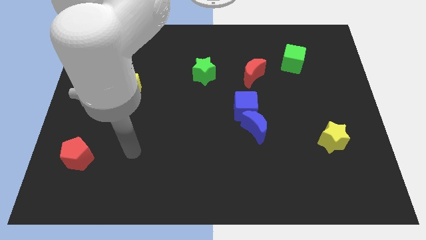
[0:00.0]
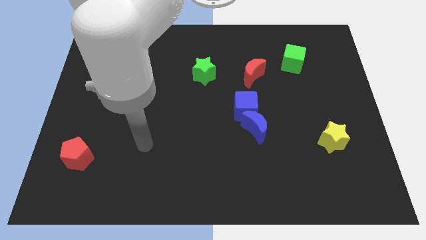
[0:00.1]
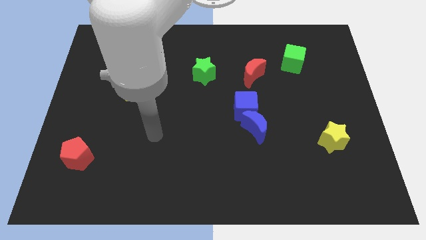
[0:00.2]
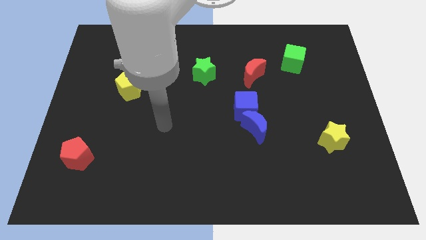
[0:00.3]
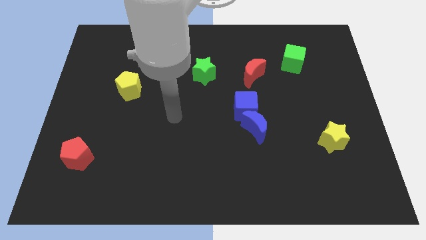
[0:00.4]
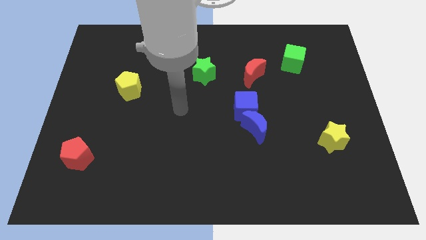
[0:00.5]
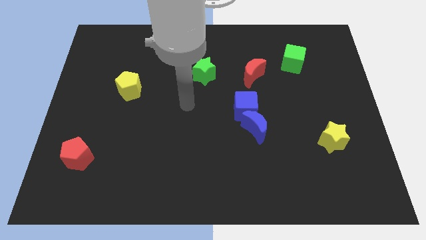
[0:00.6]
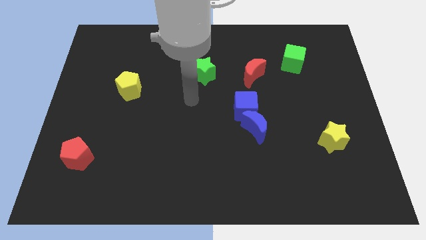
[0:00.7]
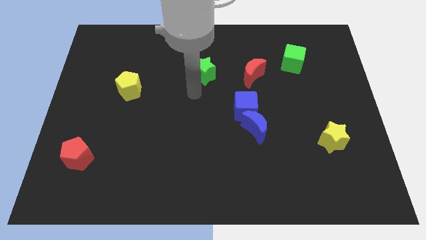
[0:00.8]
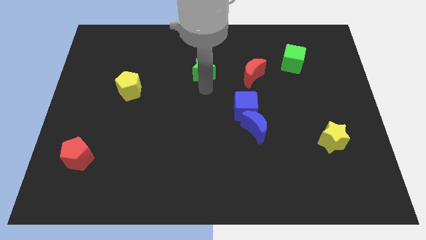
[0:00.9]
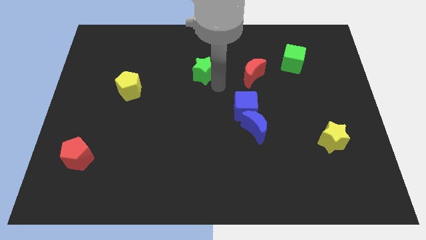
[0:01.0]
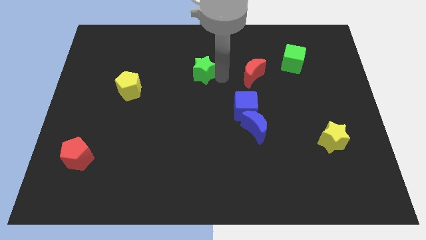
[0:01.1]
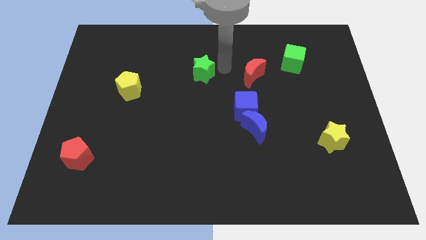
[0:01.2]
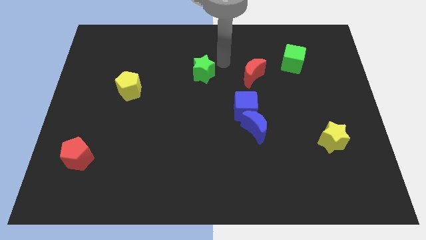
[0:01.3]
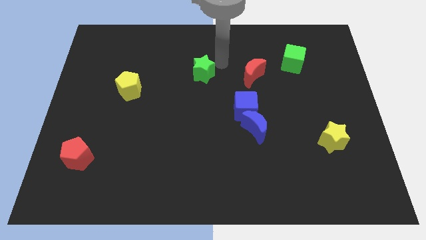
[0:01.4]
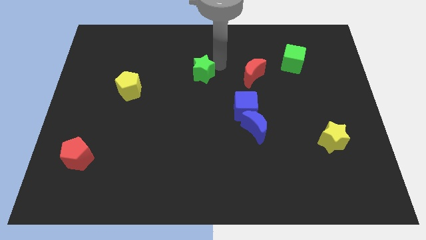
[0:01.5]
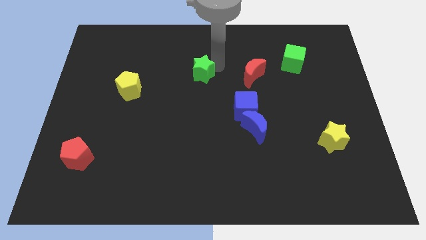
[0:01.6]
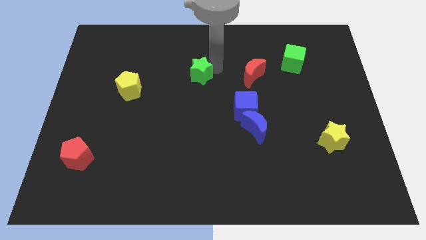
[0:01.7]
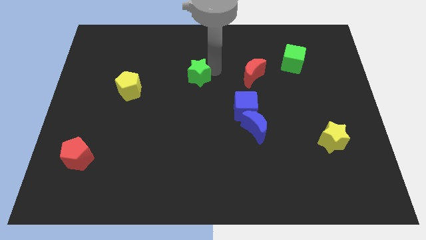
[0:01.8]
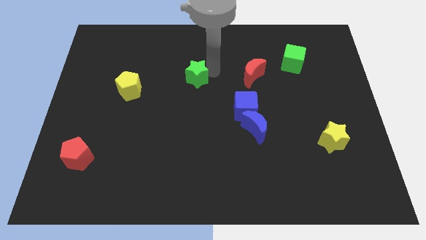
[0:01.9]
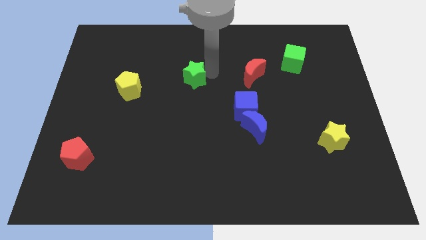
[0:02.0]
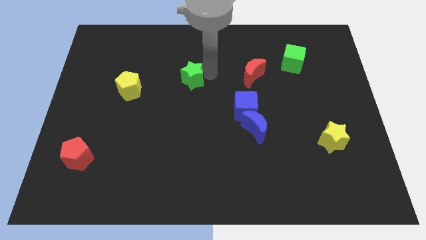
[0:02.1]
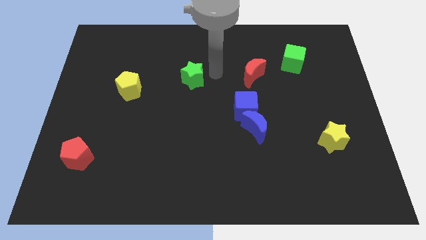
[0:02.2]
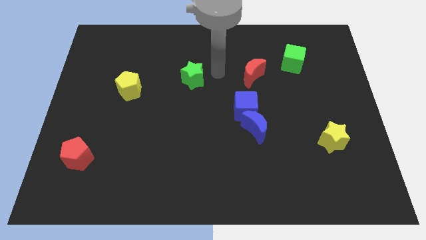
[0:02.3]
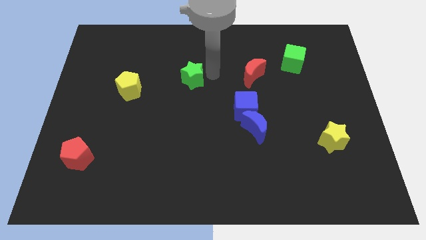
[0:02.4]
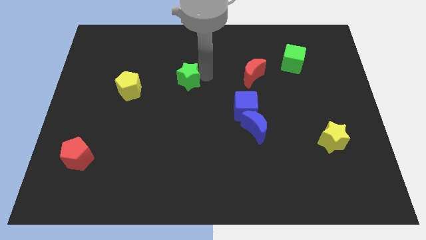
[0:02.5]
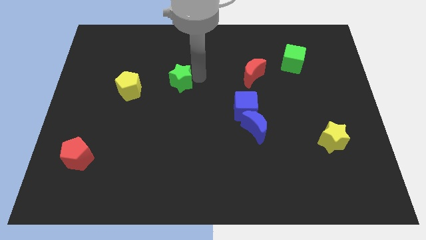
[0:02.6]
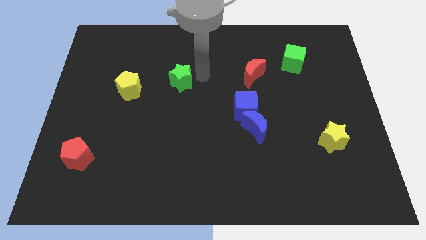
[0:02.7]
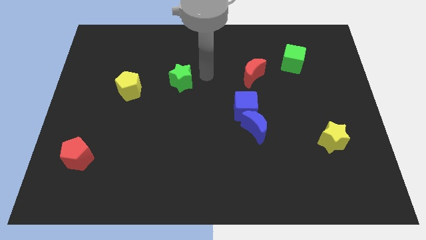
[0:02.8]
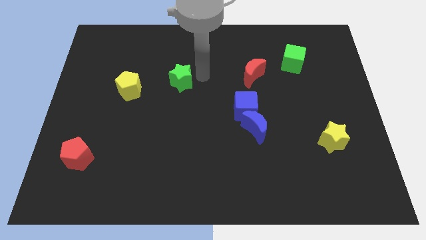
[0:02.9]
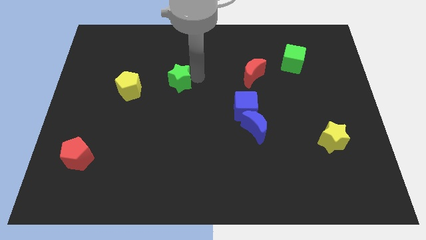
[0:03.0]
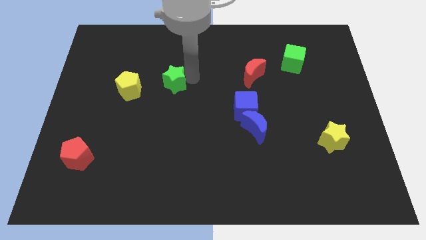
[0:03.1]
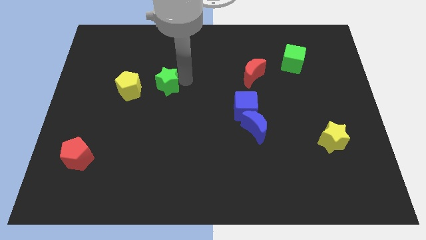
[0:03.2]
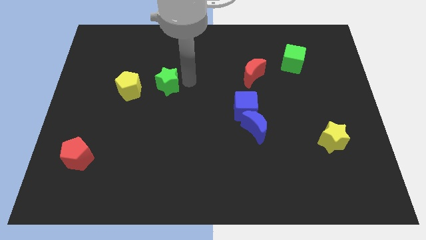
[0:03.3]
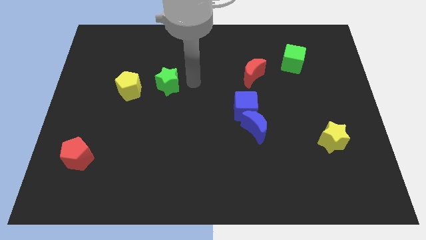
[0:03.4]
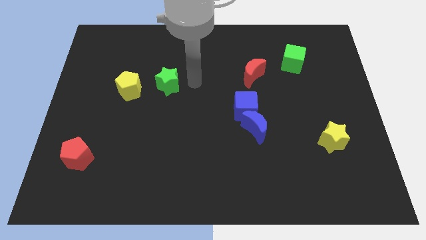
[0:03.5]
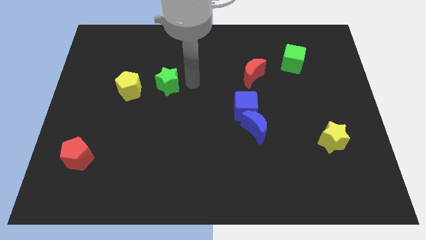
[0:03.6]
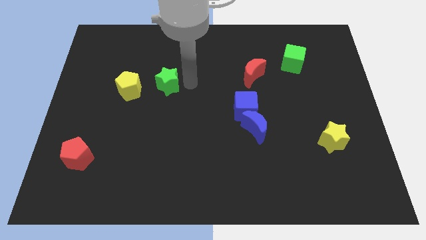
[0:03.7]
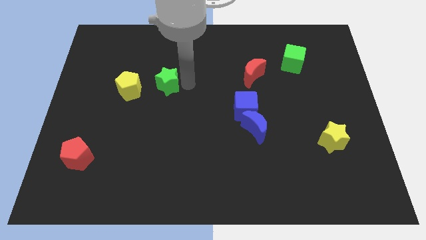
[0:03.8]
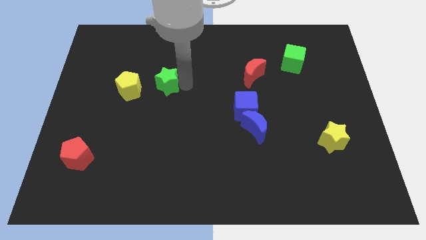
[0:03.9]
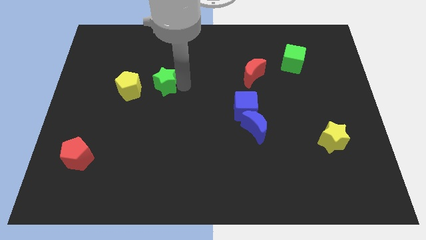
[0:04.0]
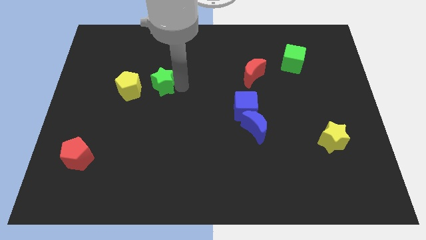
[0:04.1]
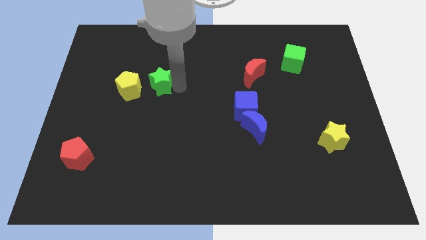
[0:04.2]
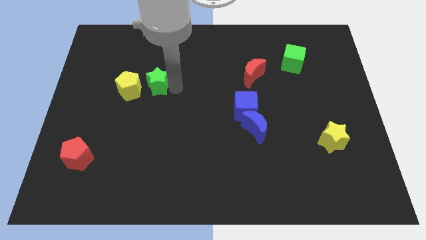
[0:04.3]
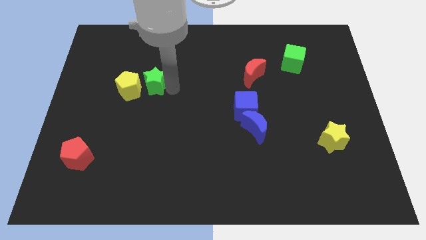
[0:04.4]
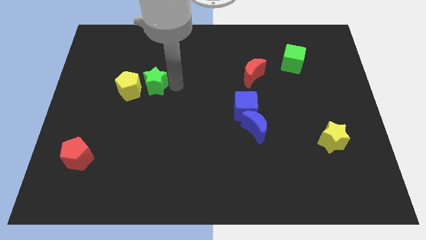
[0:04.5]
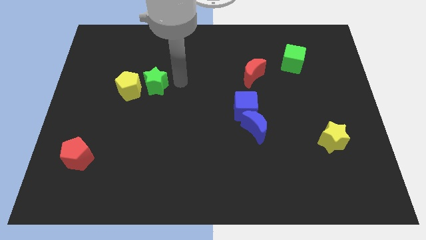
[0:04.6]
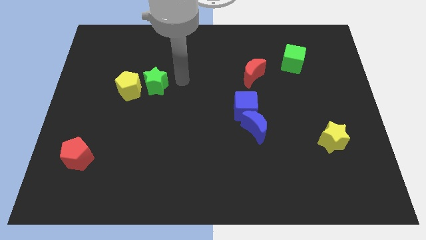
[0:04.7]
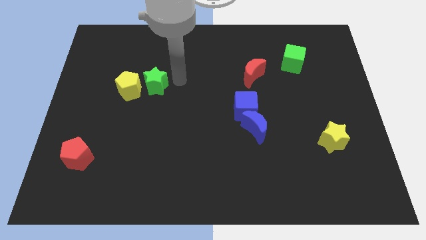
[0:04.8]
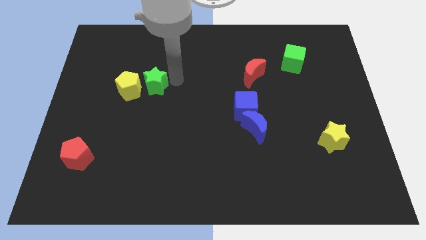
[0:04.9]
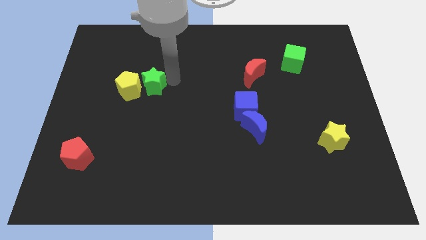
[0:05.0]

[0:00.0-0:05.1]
move the green star to the yellow pentagon

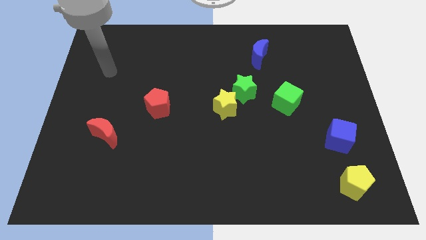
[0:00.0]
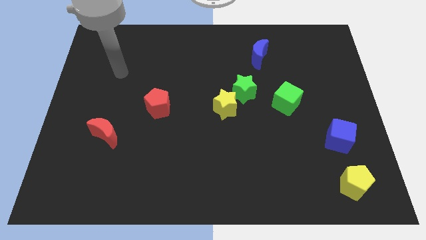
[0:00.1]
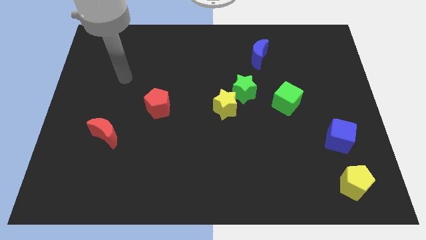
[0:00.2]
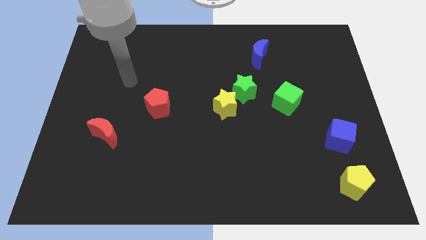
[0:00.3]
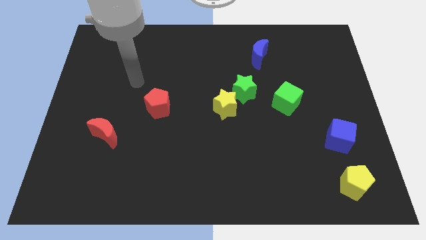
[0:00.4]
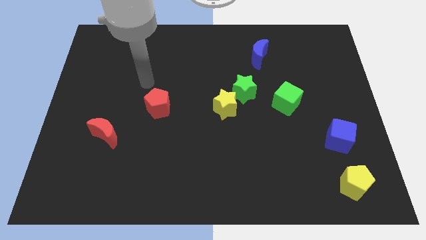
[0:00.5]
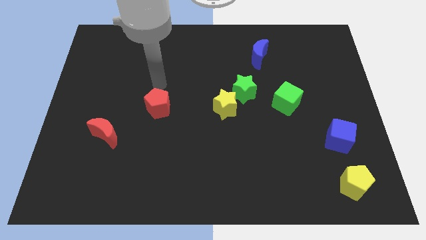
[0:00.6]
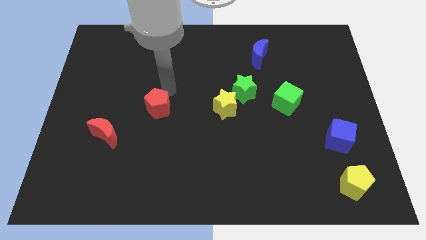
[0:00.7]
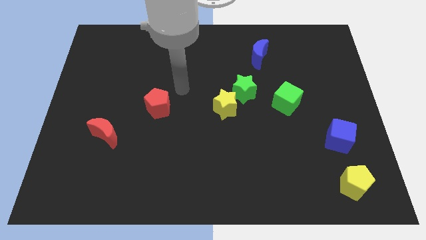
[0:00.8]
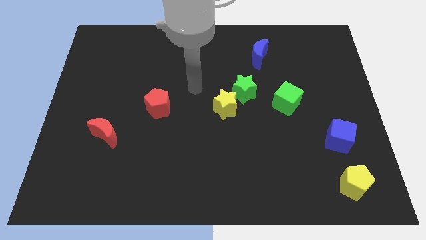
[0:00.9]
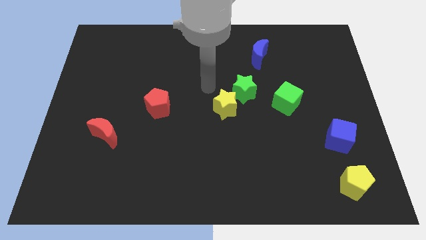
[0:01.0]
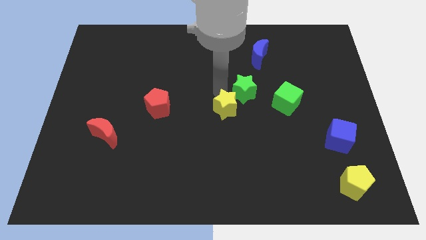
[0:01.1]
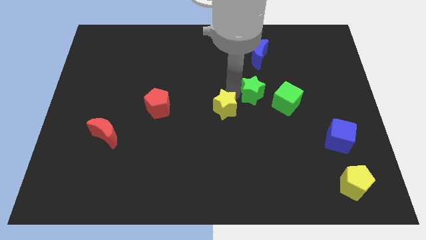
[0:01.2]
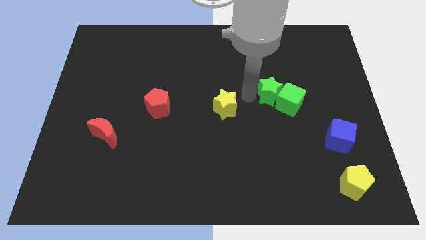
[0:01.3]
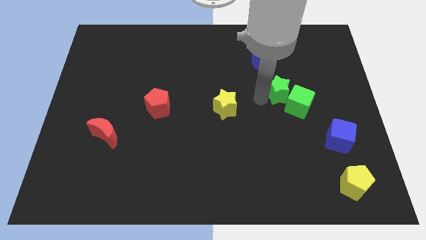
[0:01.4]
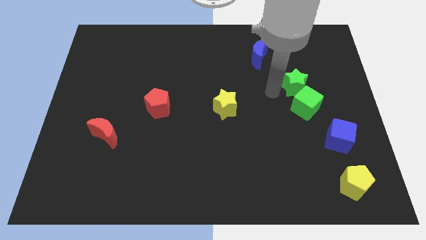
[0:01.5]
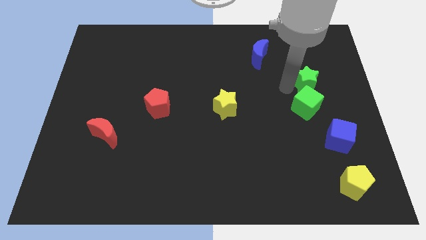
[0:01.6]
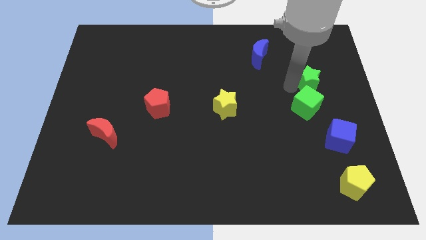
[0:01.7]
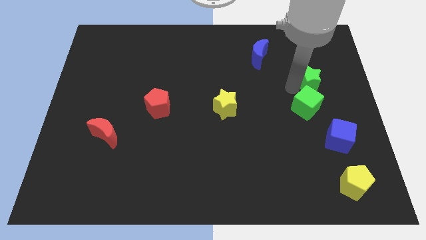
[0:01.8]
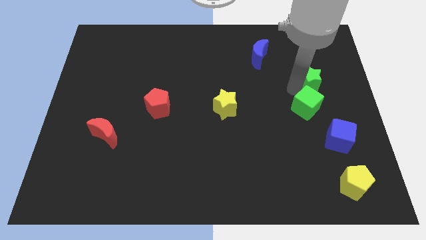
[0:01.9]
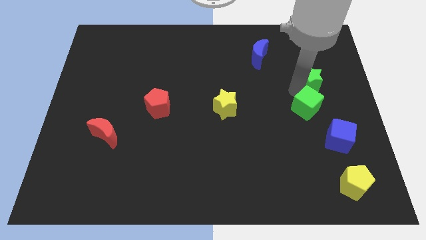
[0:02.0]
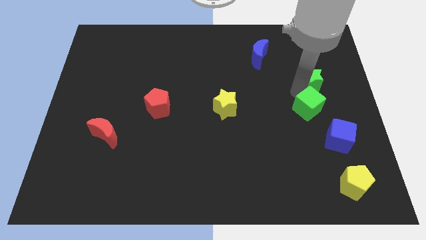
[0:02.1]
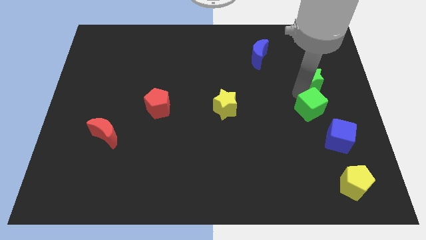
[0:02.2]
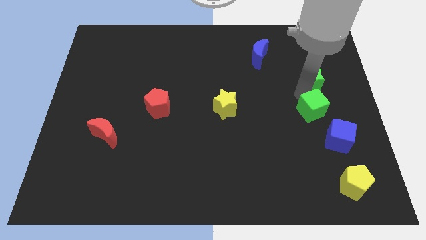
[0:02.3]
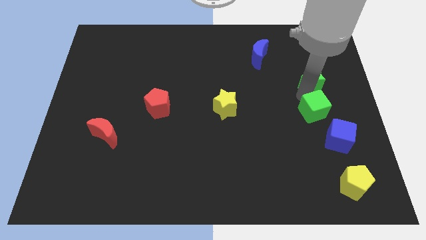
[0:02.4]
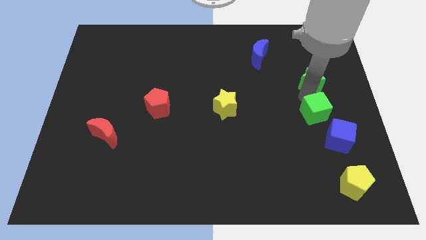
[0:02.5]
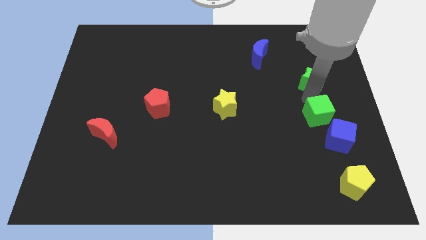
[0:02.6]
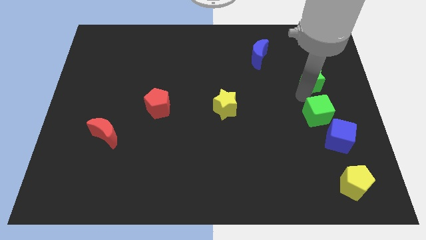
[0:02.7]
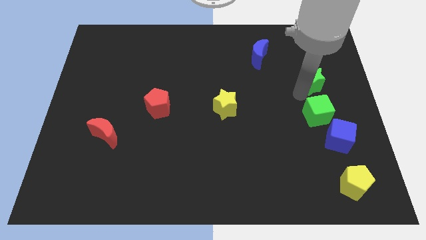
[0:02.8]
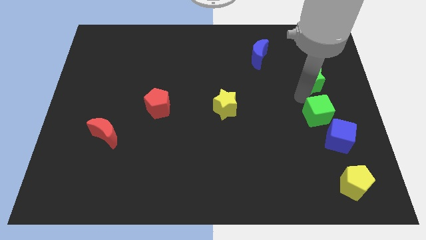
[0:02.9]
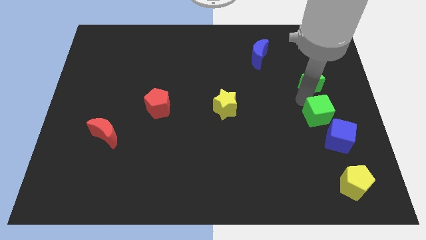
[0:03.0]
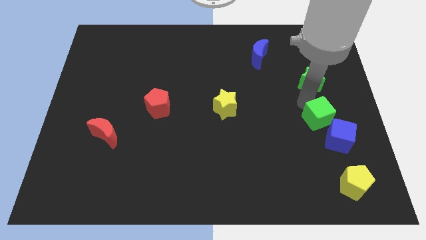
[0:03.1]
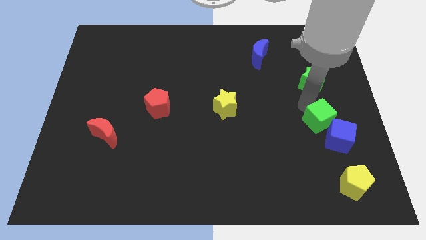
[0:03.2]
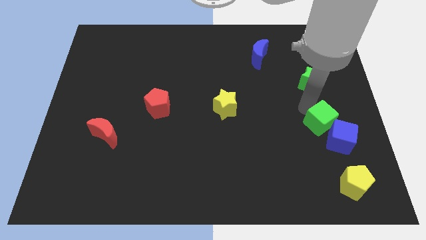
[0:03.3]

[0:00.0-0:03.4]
put the green cube towards the blue cube
